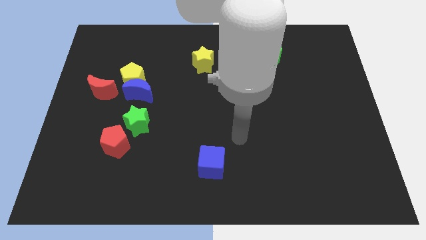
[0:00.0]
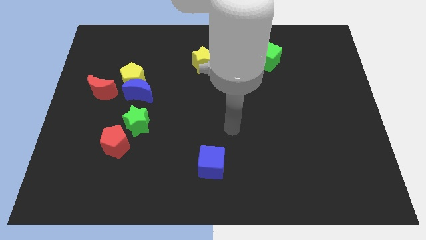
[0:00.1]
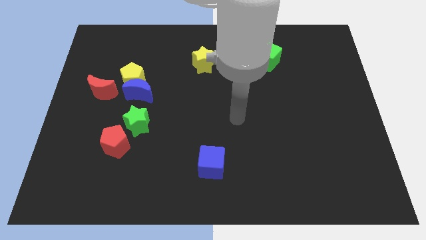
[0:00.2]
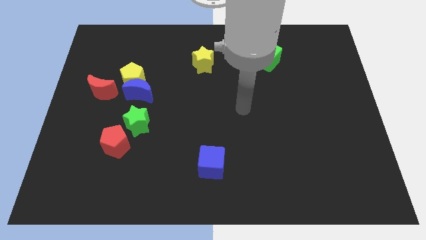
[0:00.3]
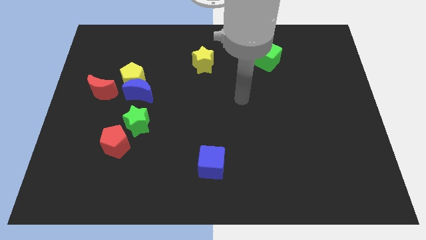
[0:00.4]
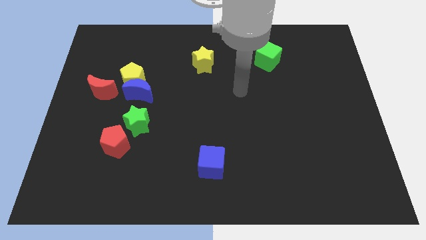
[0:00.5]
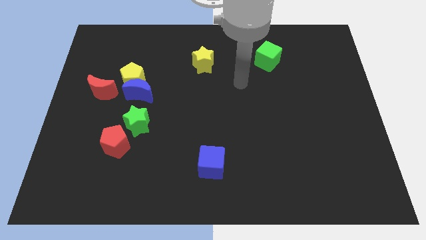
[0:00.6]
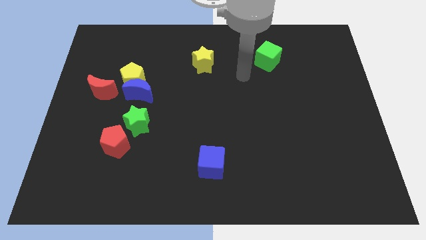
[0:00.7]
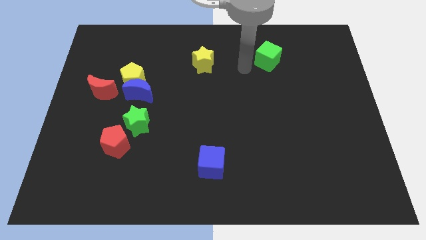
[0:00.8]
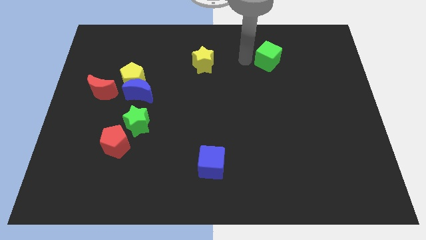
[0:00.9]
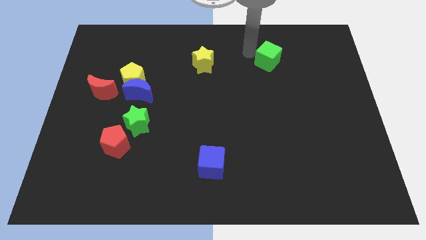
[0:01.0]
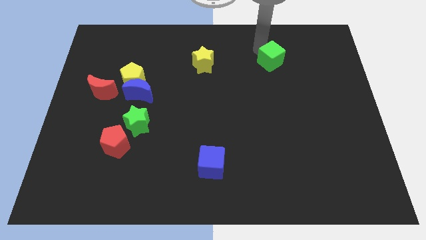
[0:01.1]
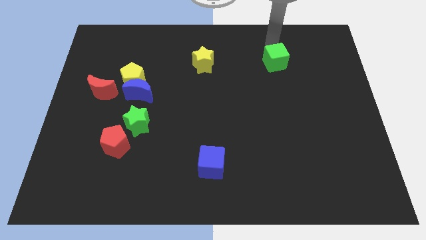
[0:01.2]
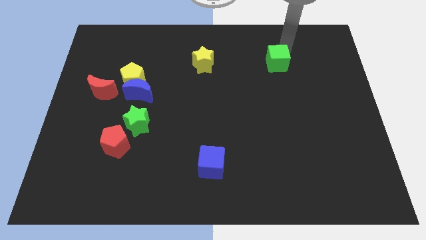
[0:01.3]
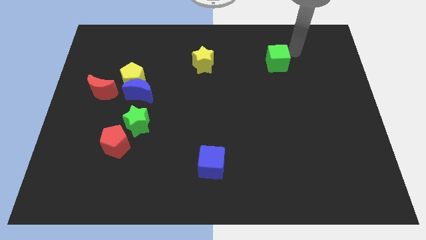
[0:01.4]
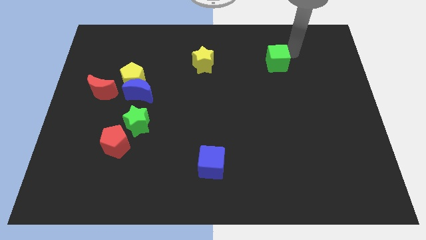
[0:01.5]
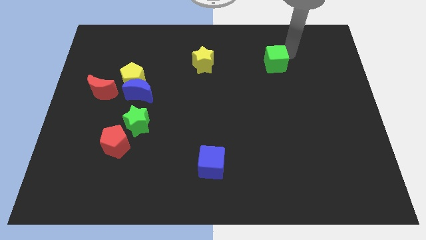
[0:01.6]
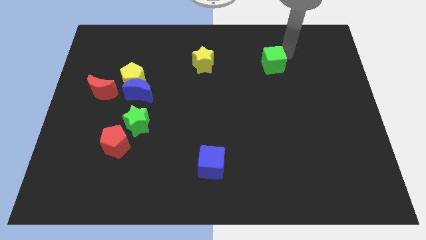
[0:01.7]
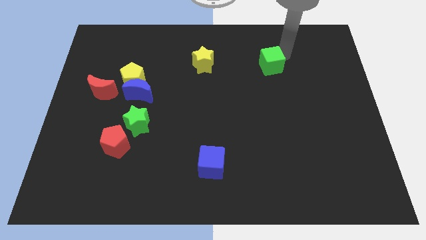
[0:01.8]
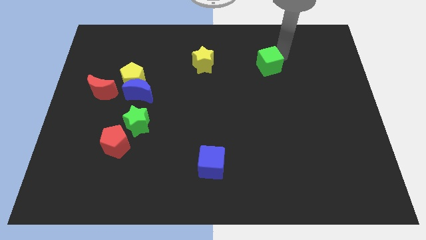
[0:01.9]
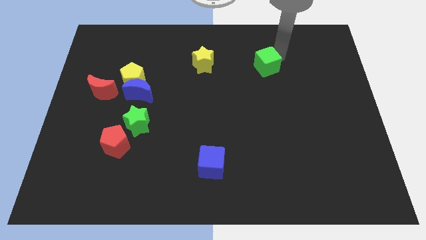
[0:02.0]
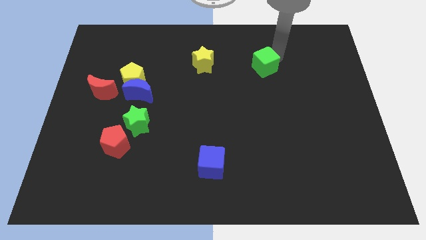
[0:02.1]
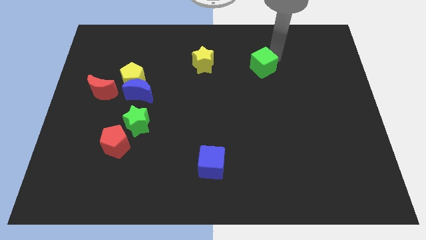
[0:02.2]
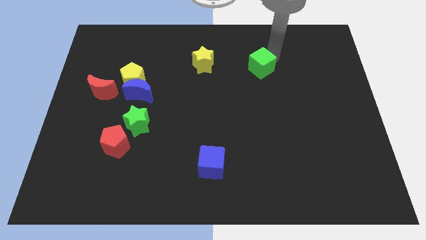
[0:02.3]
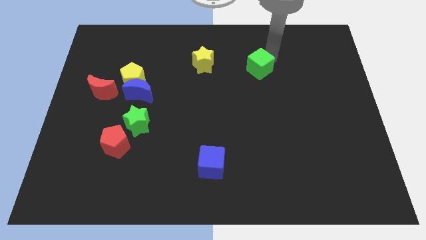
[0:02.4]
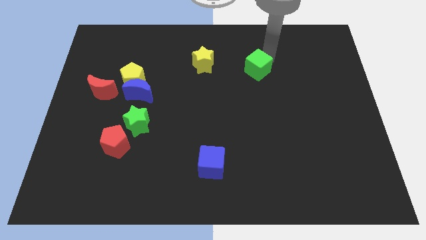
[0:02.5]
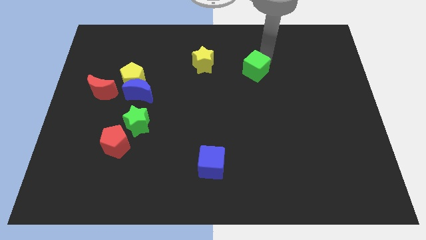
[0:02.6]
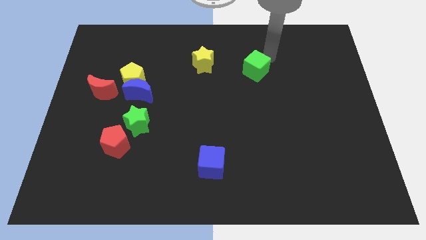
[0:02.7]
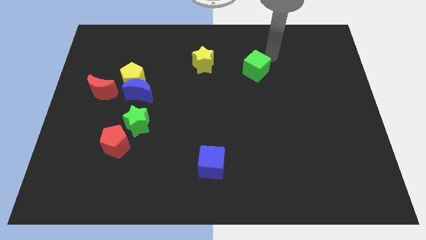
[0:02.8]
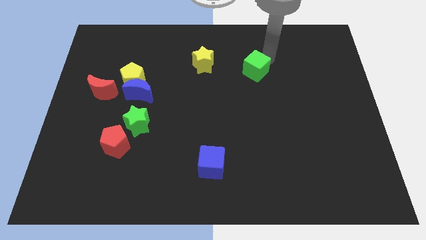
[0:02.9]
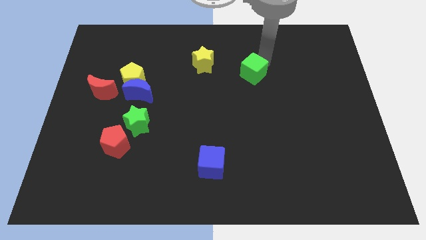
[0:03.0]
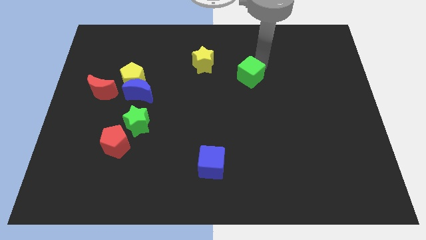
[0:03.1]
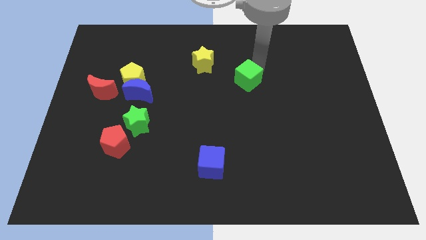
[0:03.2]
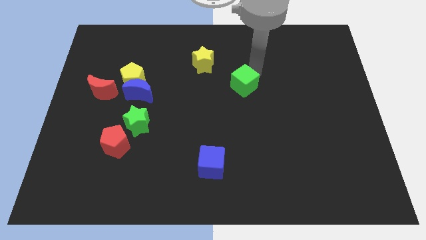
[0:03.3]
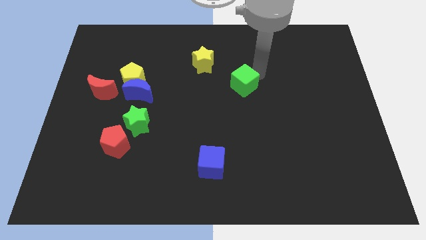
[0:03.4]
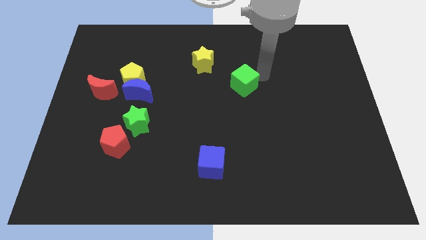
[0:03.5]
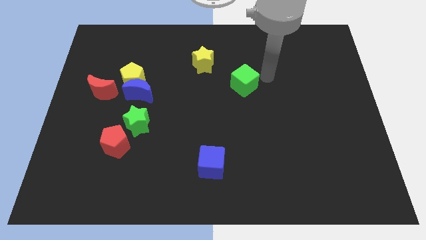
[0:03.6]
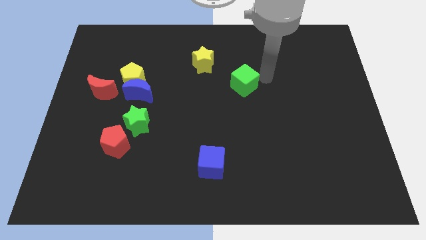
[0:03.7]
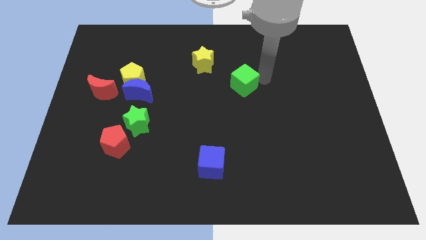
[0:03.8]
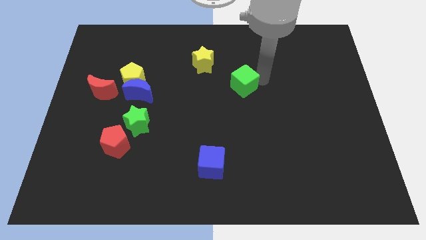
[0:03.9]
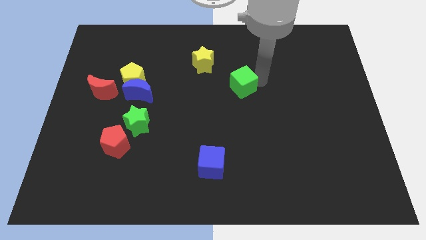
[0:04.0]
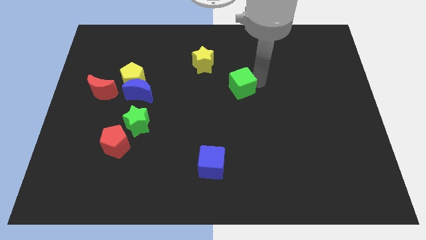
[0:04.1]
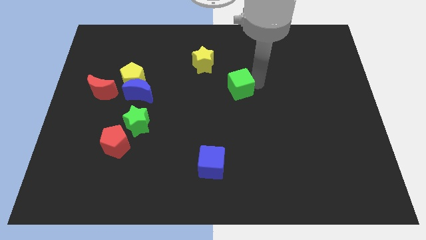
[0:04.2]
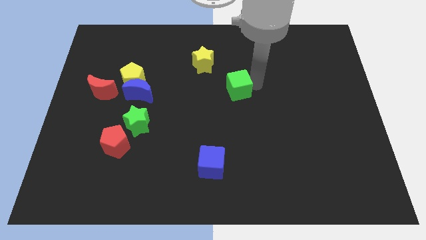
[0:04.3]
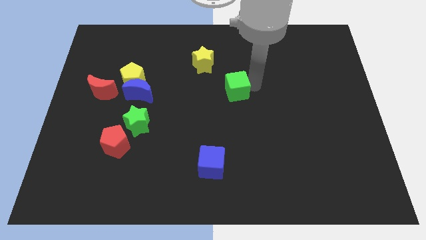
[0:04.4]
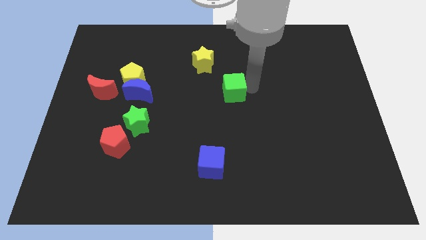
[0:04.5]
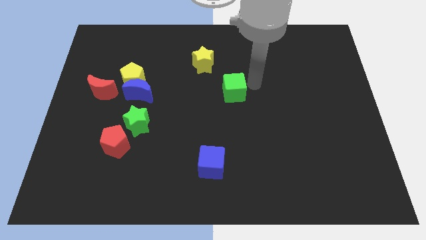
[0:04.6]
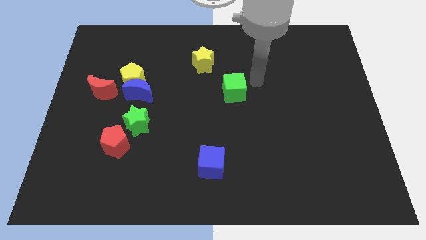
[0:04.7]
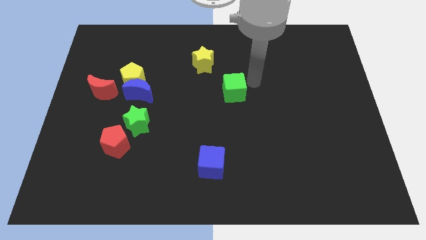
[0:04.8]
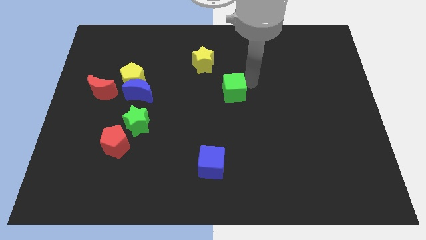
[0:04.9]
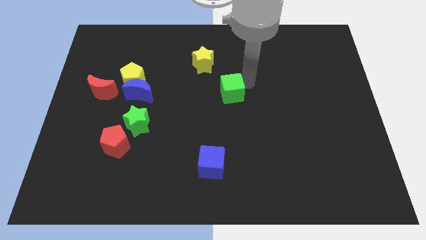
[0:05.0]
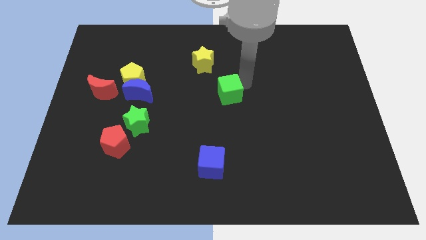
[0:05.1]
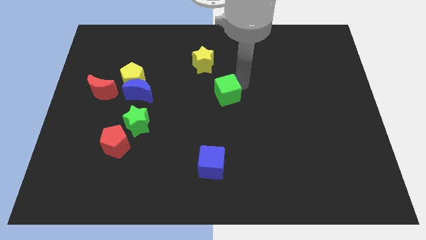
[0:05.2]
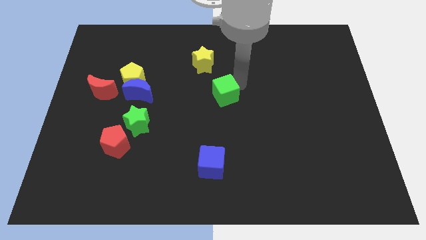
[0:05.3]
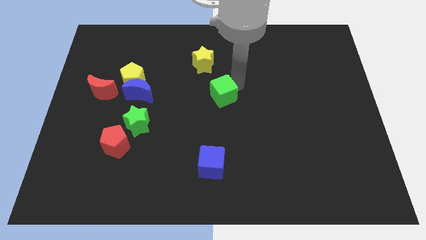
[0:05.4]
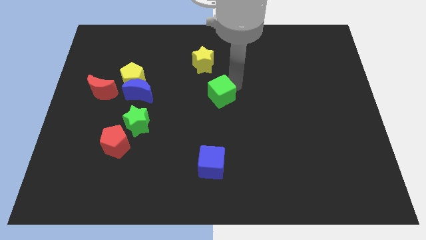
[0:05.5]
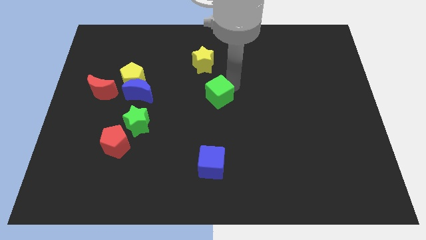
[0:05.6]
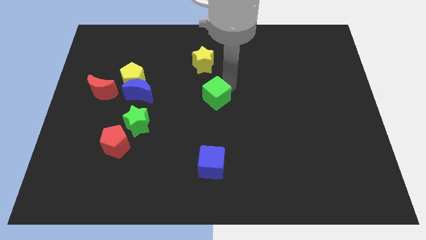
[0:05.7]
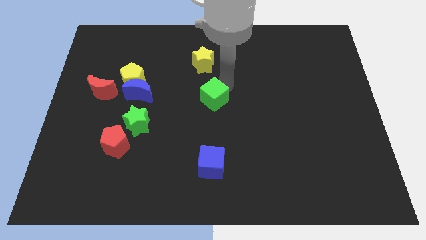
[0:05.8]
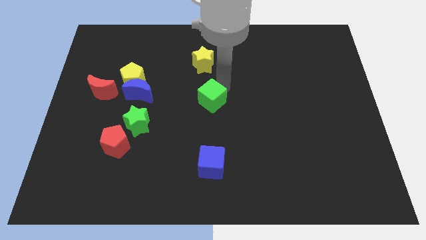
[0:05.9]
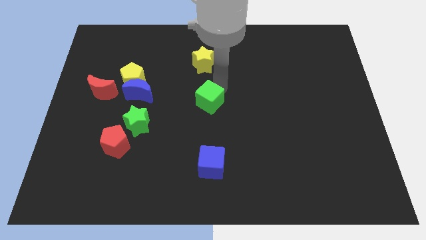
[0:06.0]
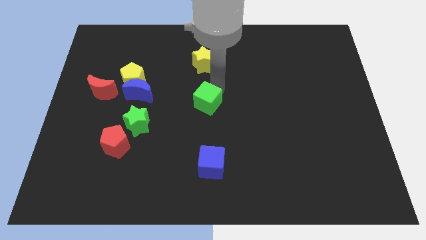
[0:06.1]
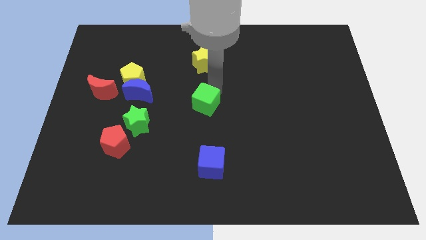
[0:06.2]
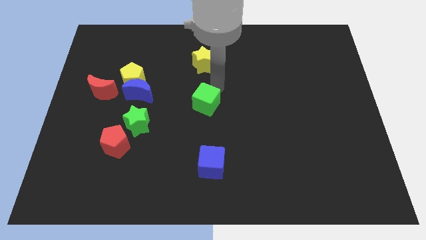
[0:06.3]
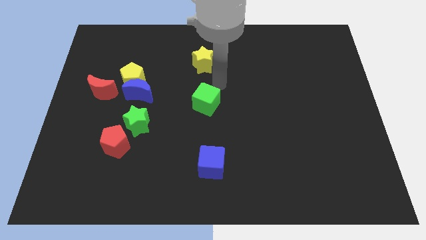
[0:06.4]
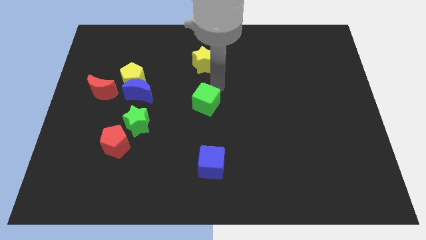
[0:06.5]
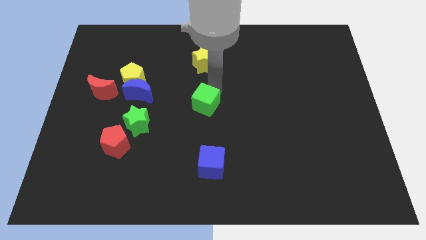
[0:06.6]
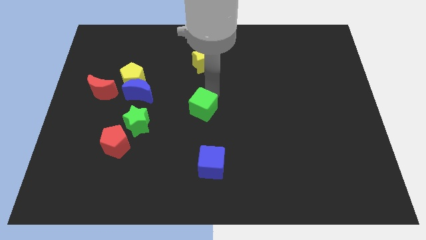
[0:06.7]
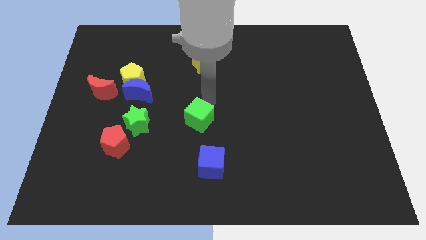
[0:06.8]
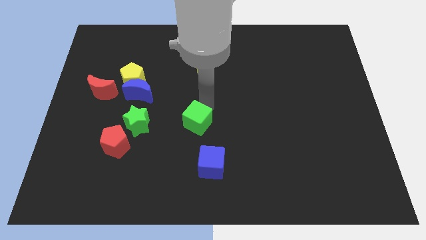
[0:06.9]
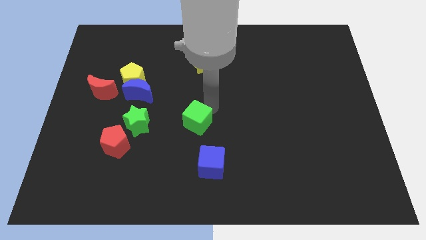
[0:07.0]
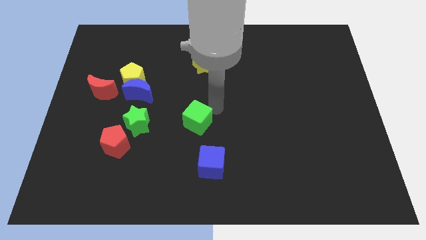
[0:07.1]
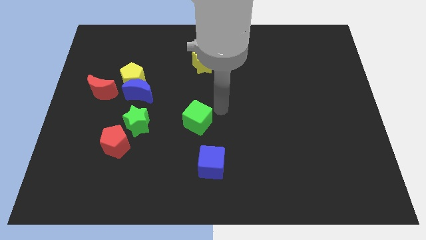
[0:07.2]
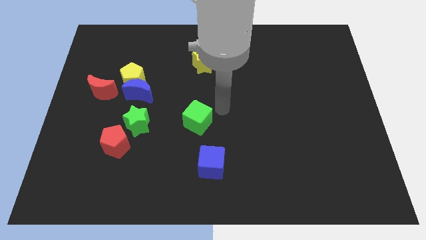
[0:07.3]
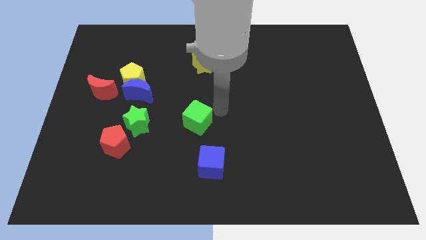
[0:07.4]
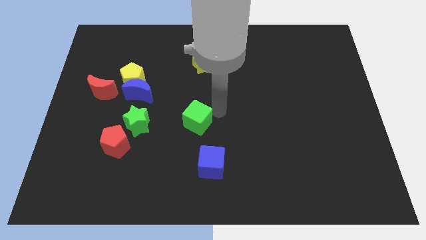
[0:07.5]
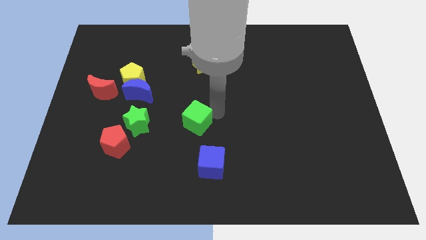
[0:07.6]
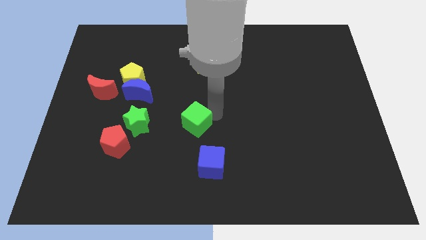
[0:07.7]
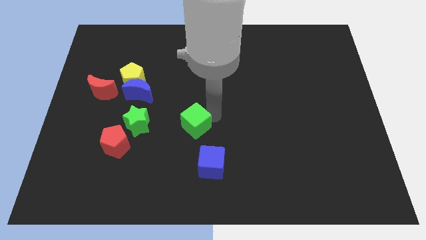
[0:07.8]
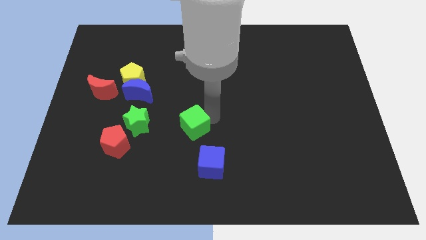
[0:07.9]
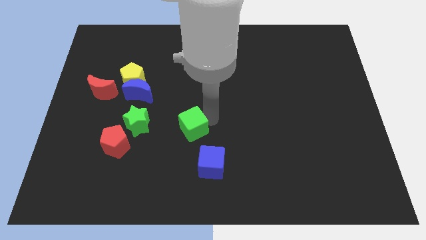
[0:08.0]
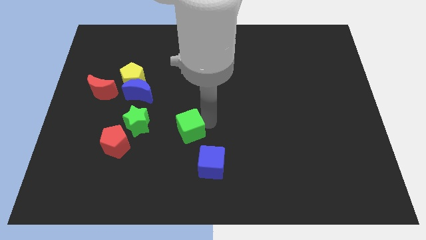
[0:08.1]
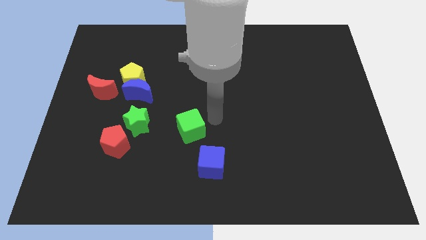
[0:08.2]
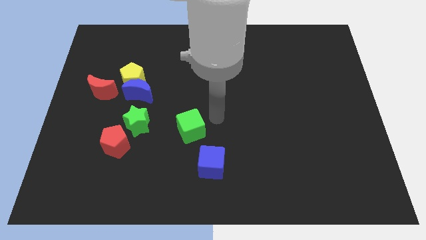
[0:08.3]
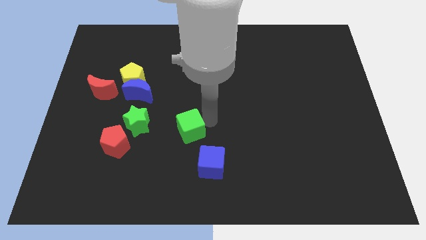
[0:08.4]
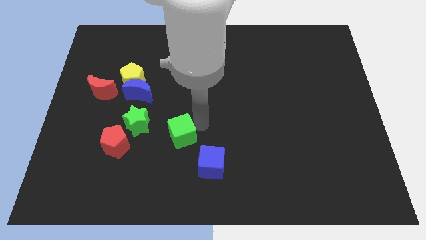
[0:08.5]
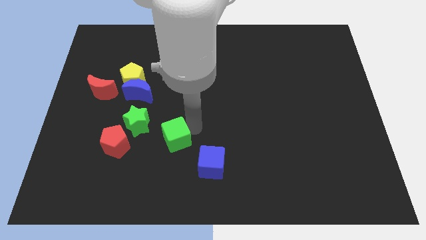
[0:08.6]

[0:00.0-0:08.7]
push the green cube to the bottom right of the green star
